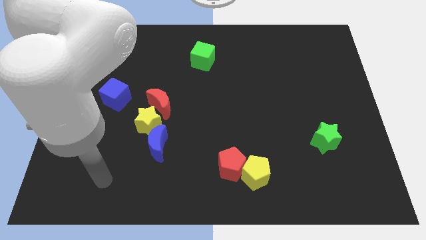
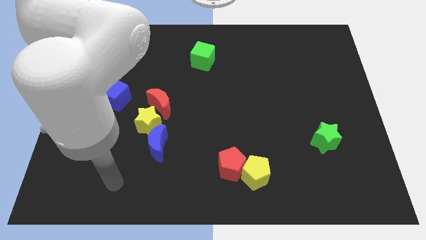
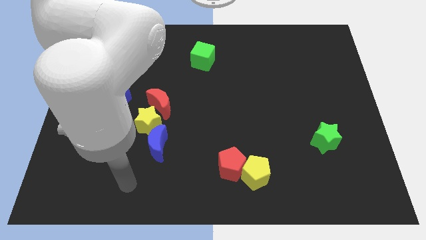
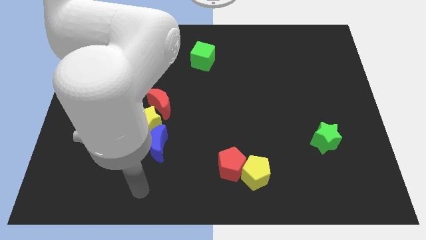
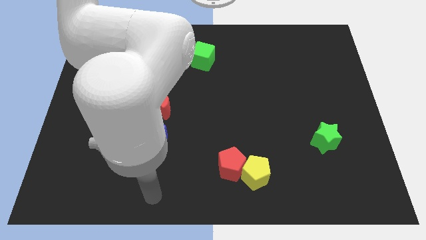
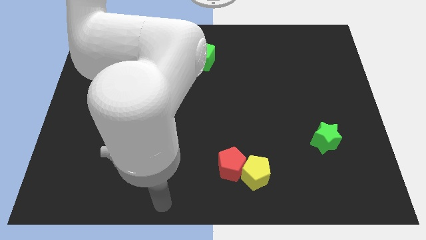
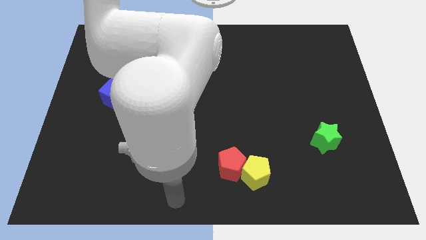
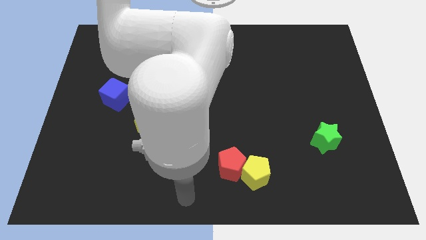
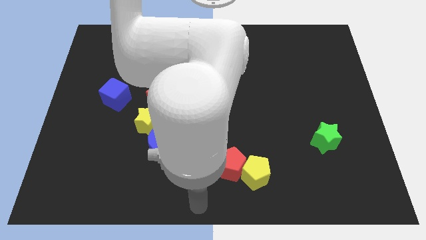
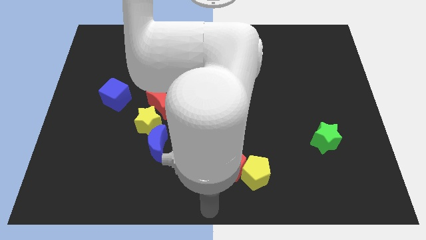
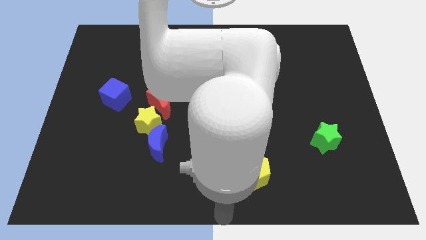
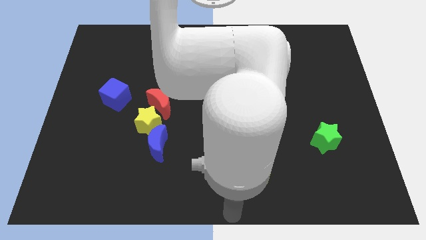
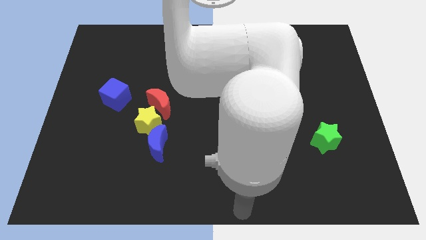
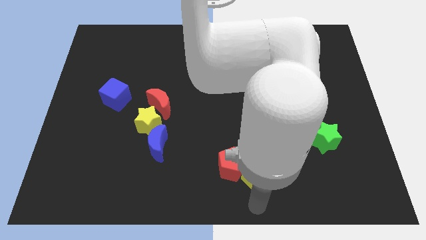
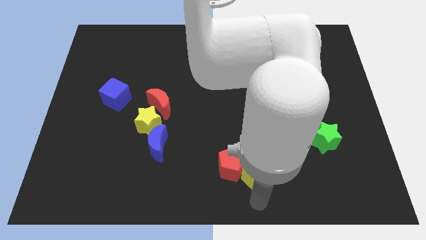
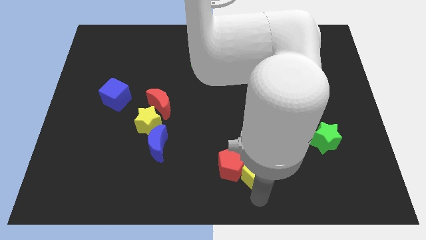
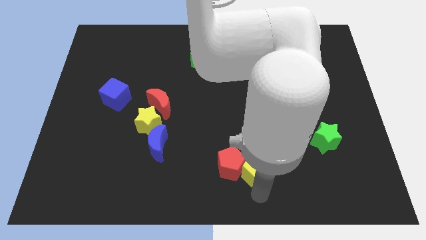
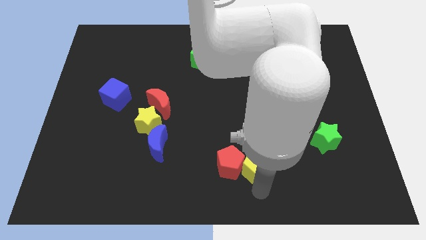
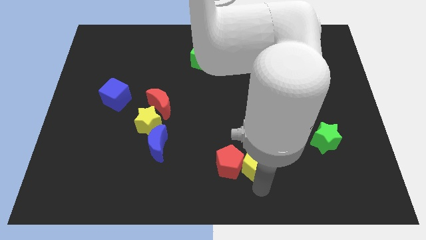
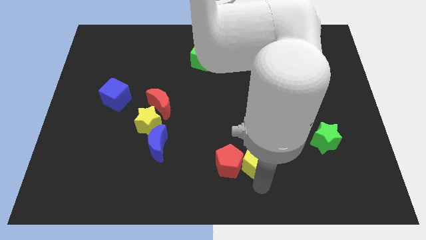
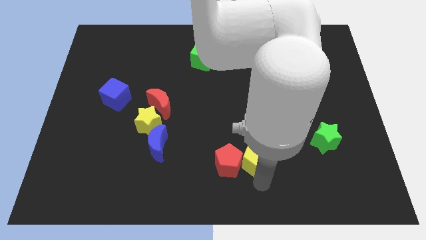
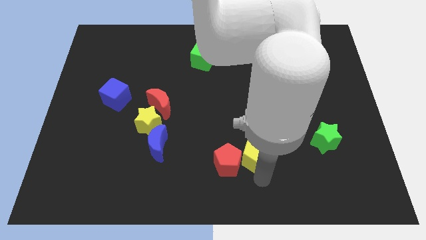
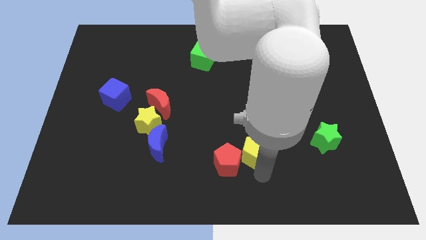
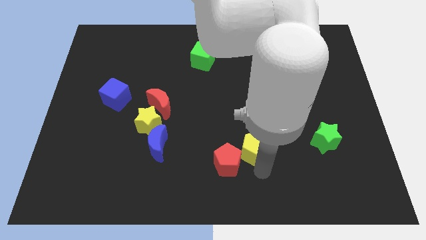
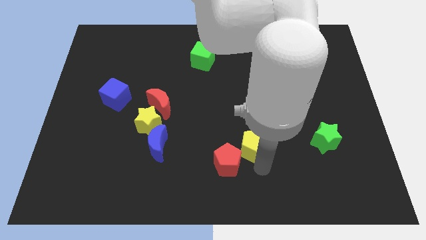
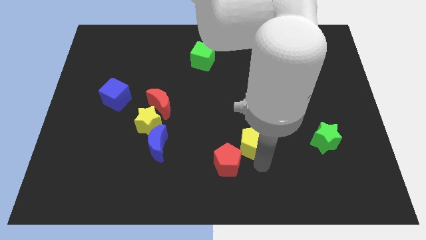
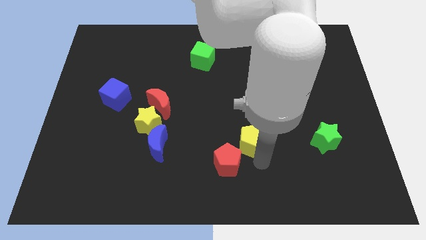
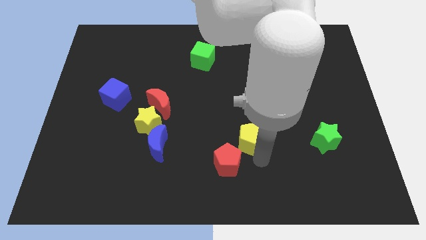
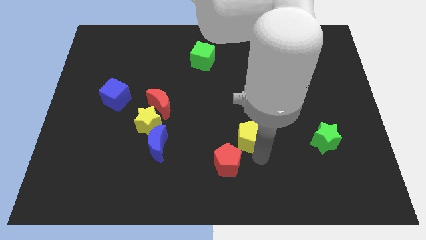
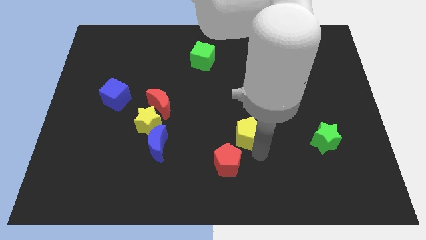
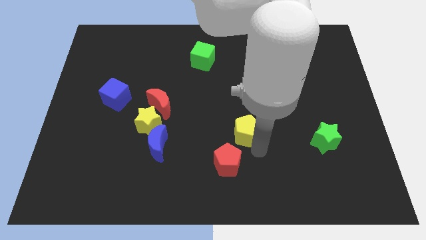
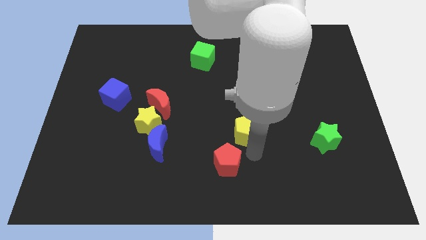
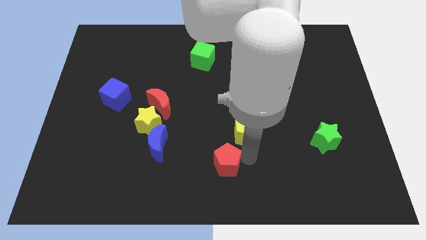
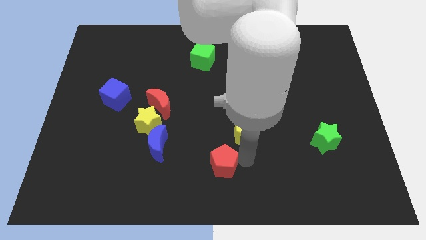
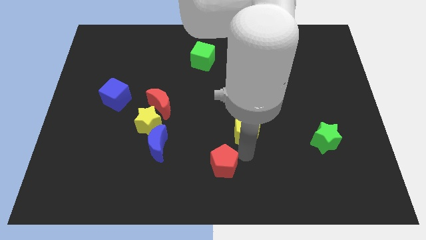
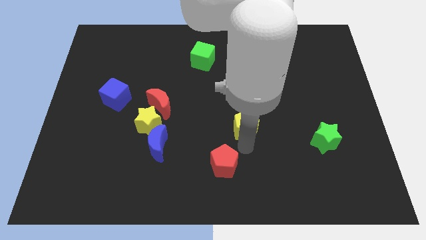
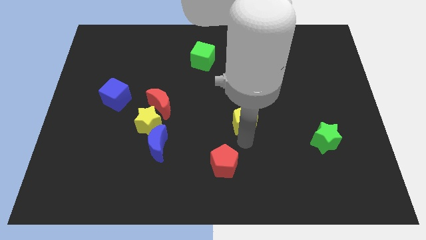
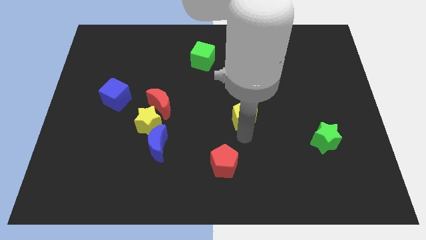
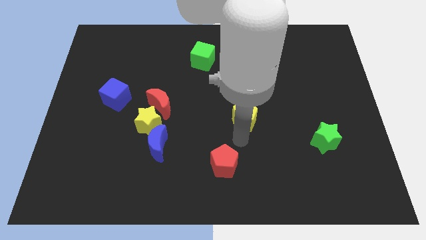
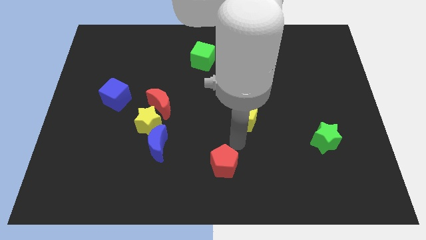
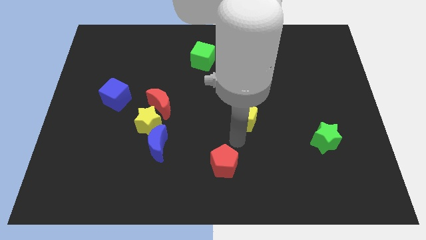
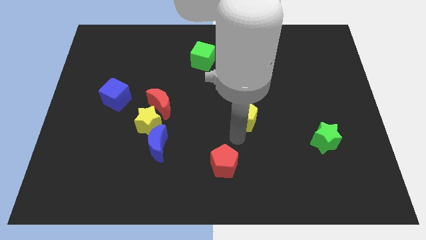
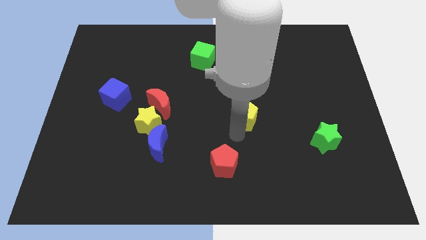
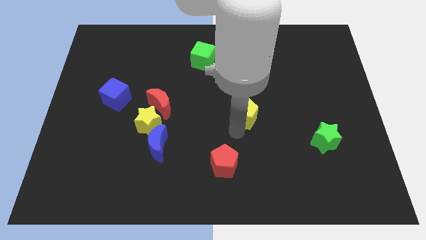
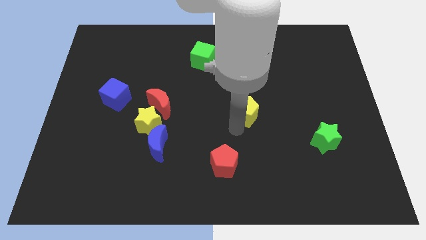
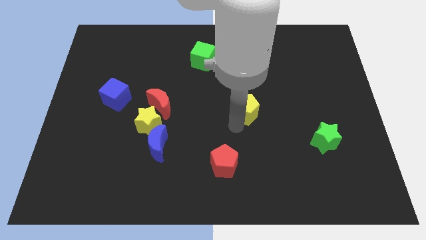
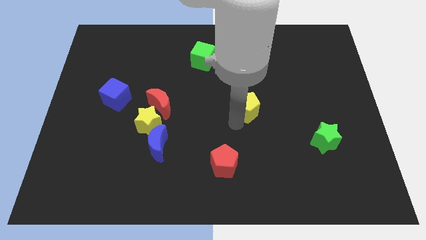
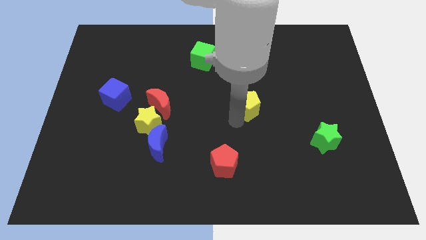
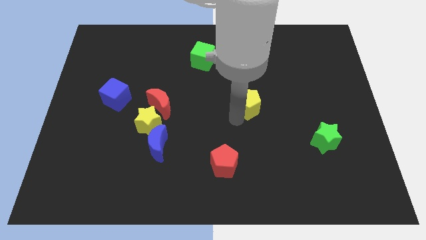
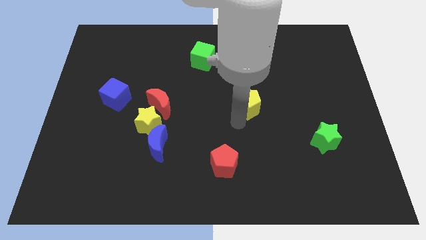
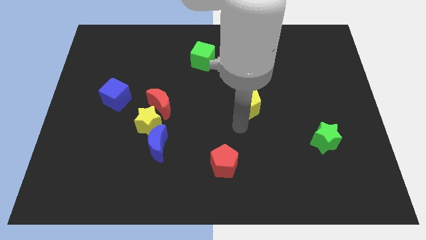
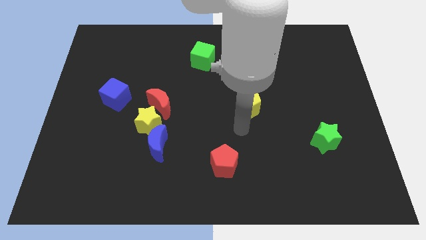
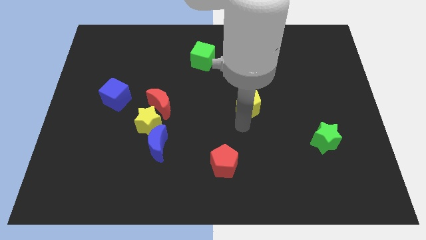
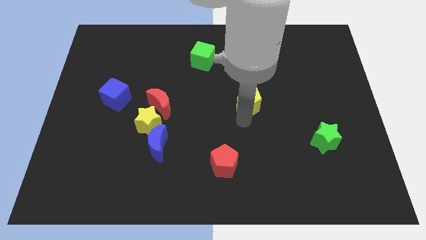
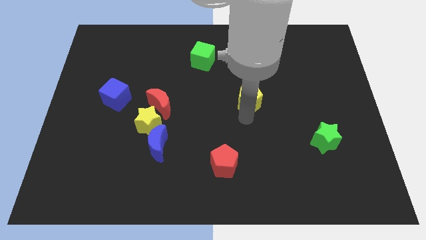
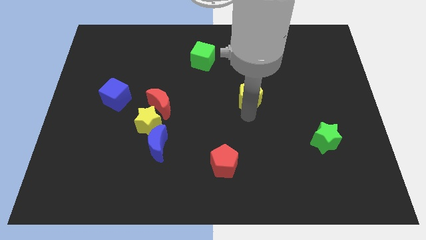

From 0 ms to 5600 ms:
push the yellow pentagon upwards

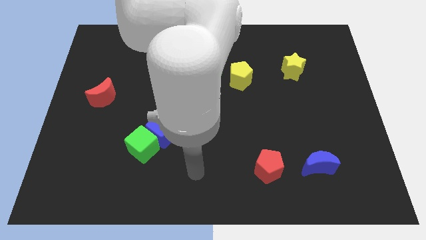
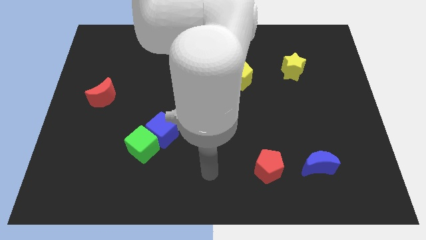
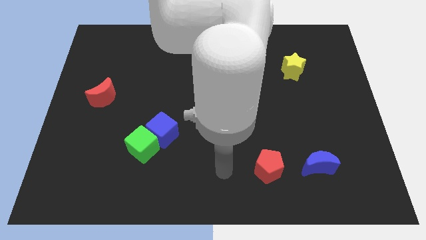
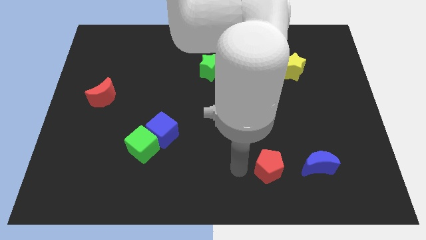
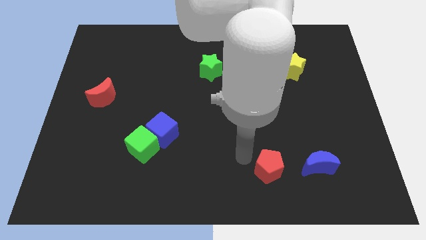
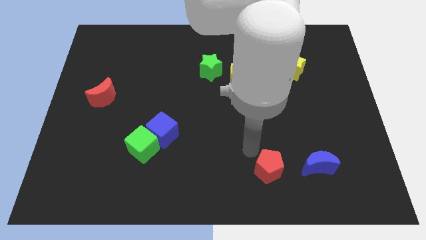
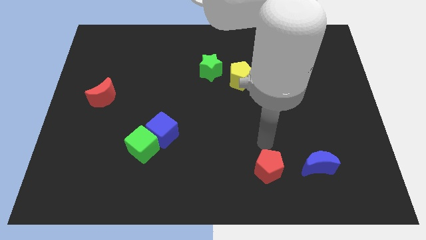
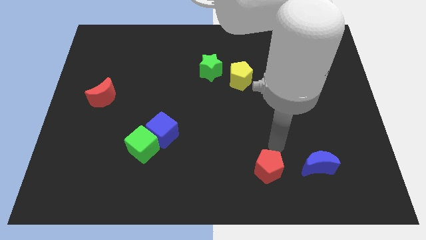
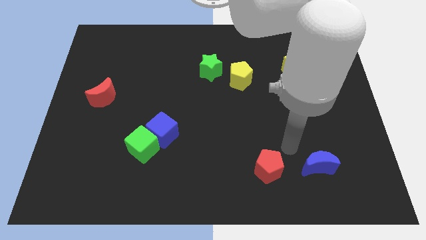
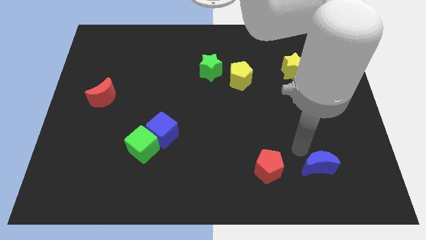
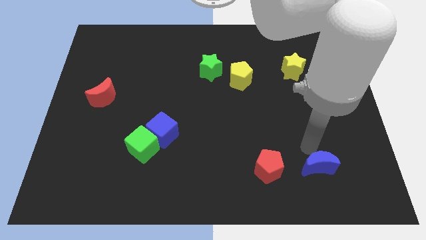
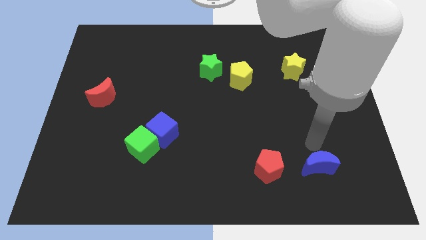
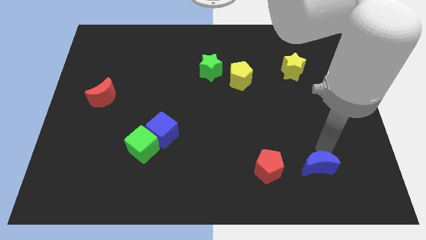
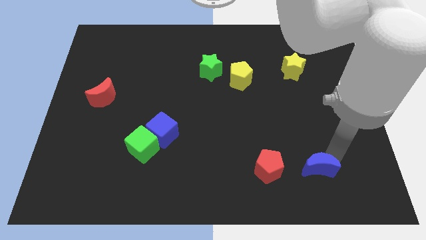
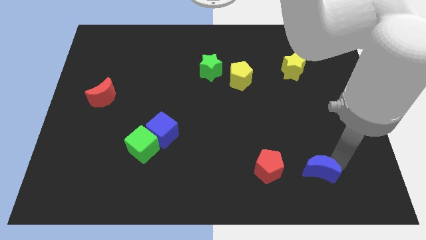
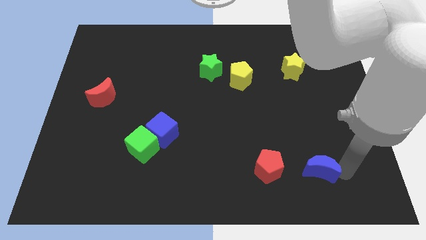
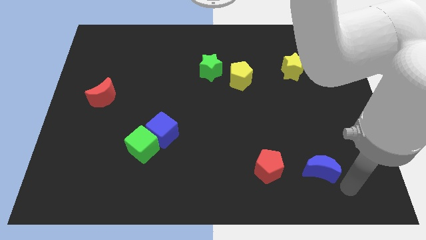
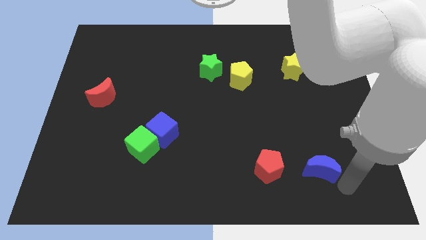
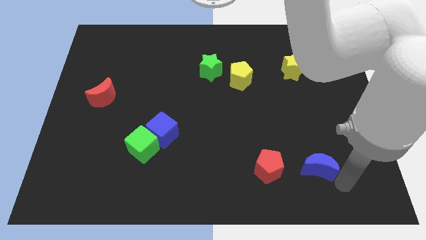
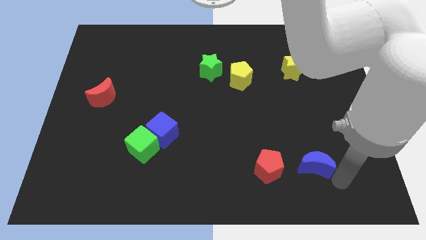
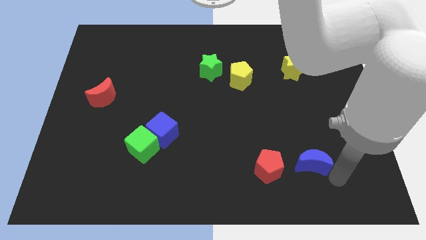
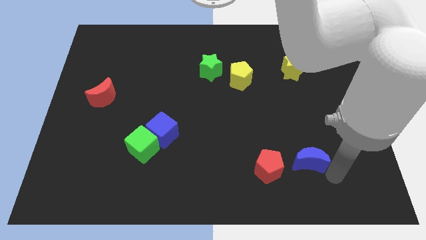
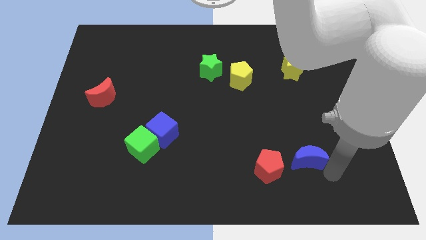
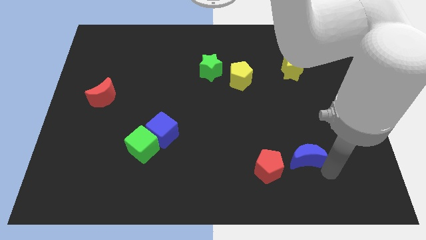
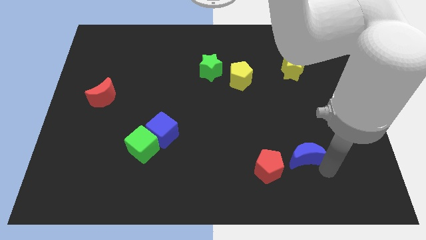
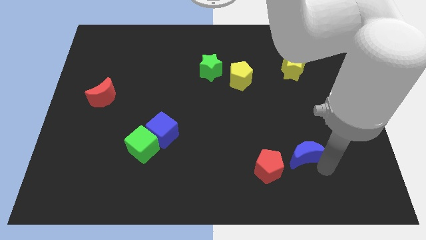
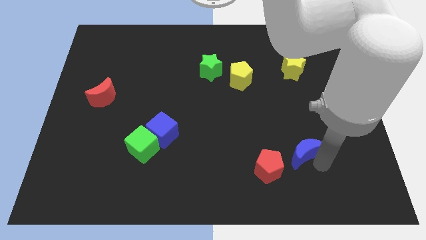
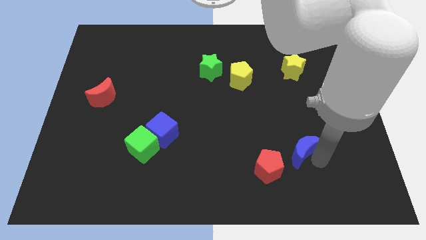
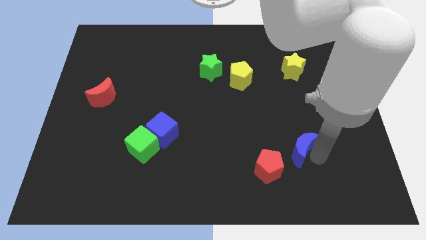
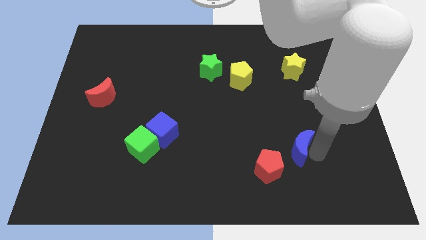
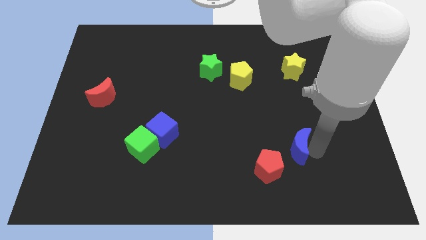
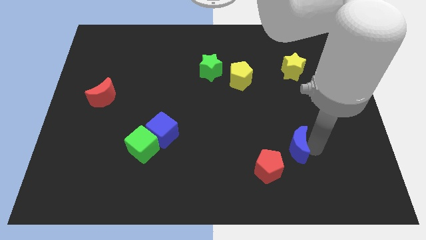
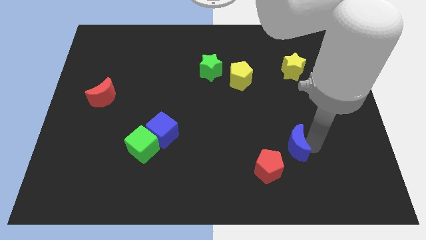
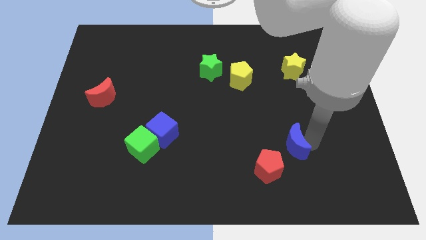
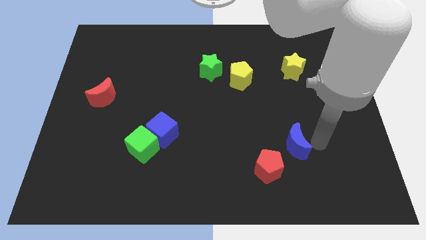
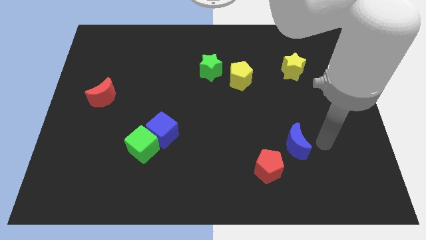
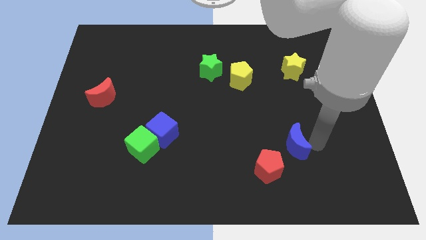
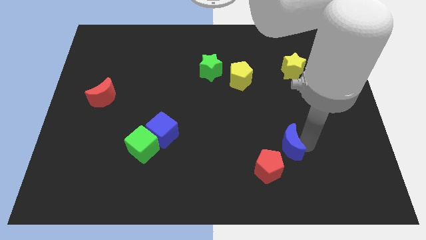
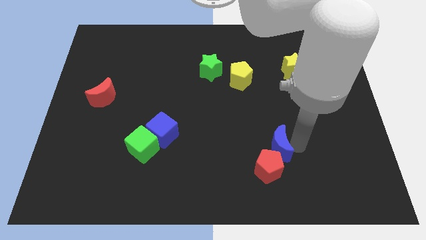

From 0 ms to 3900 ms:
slide the blue moon a bit to the left
